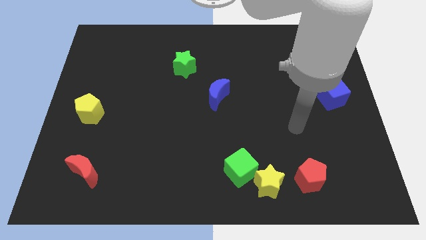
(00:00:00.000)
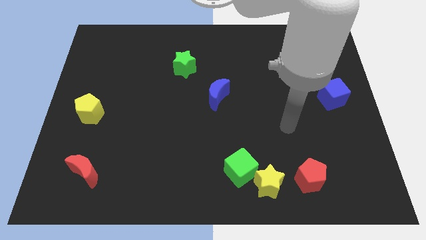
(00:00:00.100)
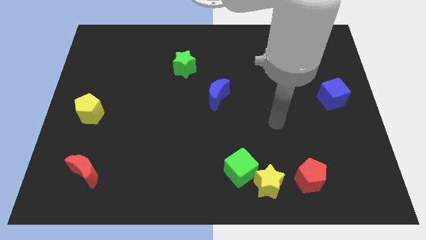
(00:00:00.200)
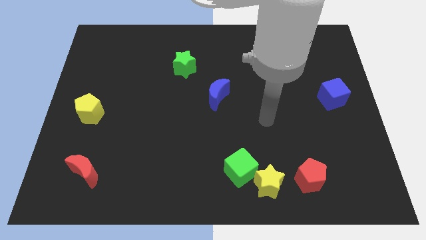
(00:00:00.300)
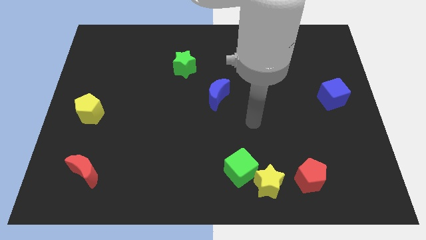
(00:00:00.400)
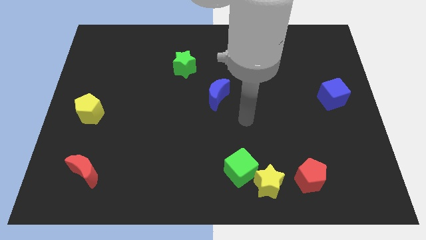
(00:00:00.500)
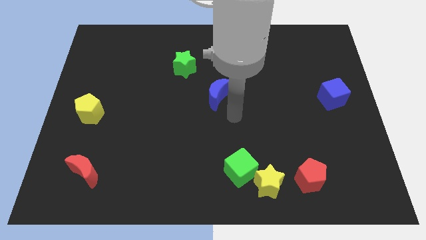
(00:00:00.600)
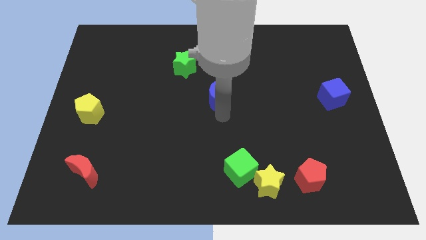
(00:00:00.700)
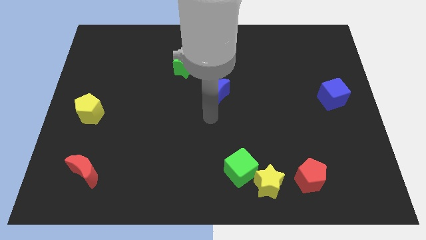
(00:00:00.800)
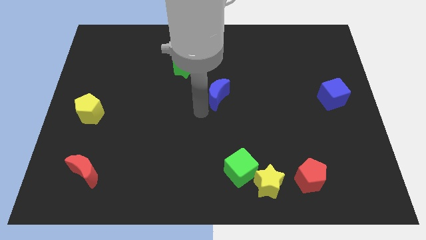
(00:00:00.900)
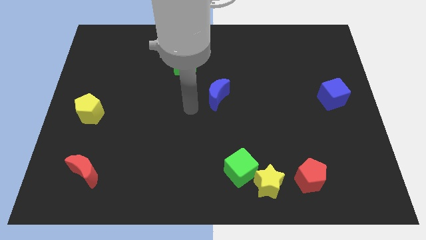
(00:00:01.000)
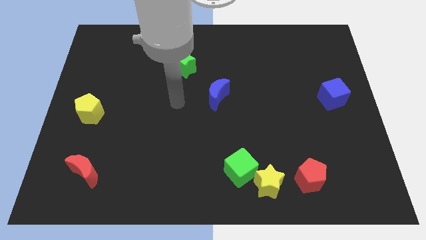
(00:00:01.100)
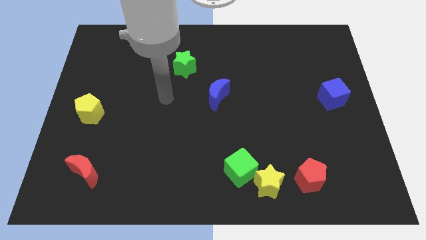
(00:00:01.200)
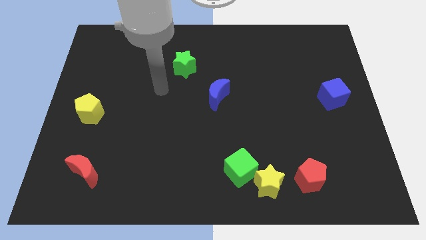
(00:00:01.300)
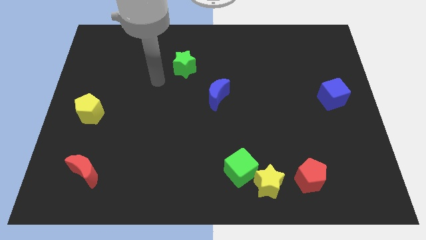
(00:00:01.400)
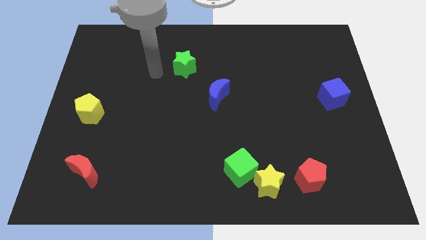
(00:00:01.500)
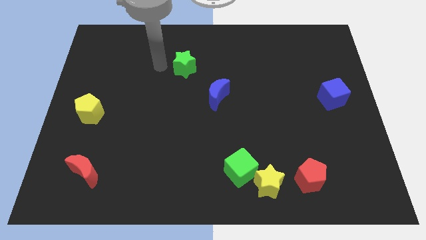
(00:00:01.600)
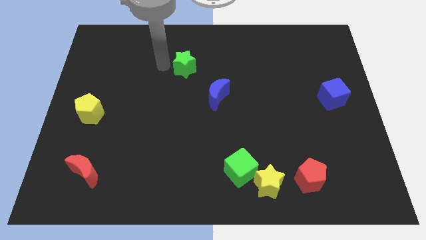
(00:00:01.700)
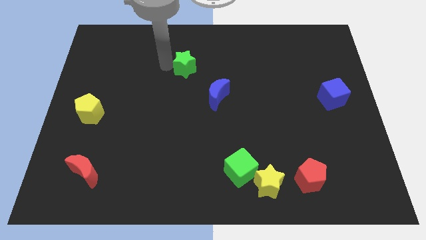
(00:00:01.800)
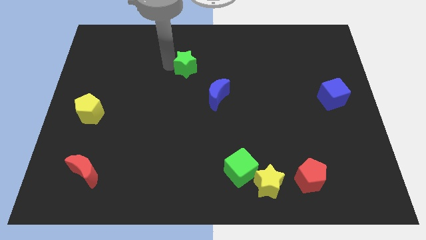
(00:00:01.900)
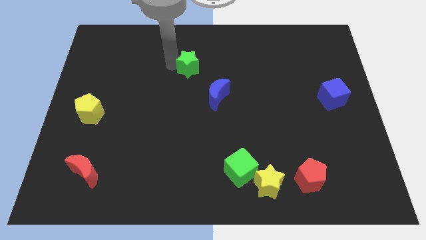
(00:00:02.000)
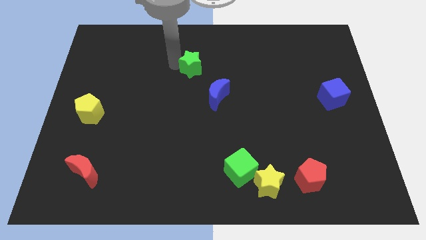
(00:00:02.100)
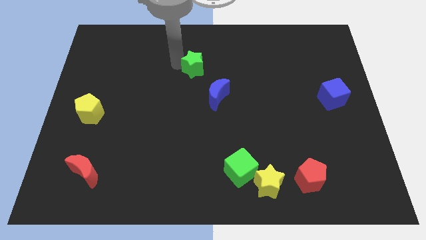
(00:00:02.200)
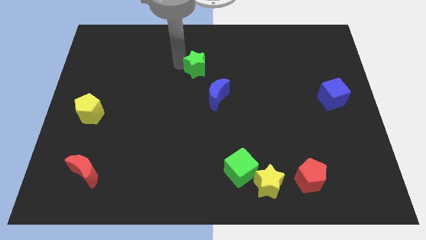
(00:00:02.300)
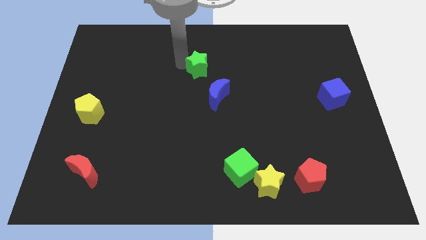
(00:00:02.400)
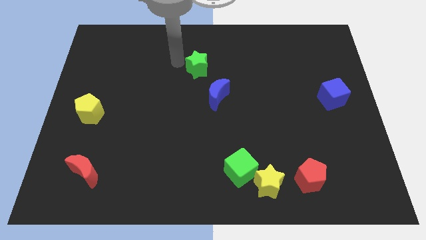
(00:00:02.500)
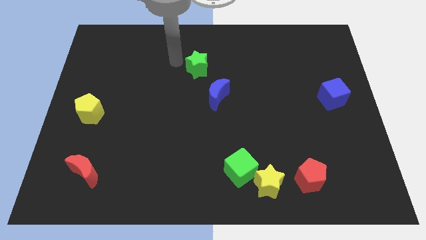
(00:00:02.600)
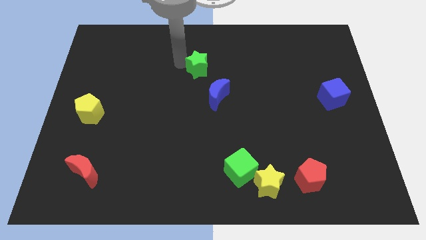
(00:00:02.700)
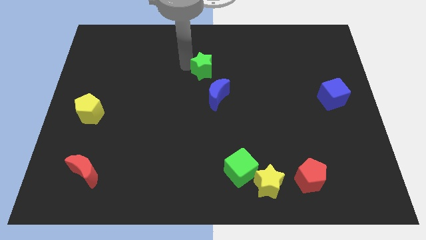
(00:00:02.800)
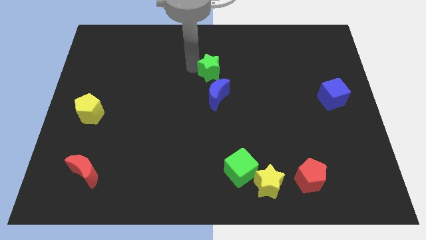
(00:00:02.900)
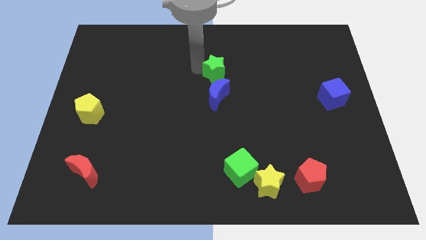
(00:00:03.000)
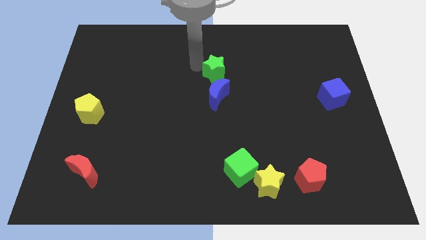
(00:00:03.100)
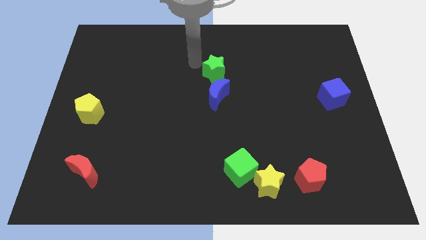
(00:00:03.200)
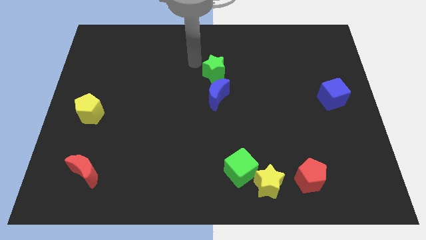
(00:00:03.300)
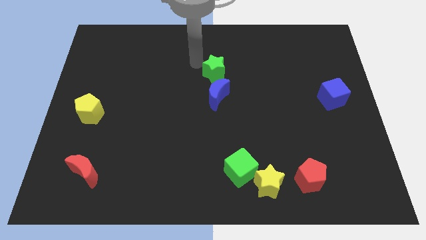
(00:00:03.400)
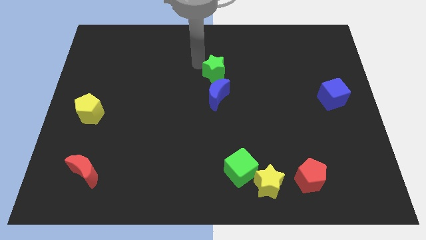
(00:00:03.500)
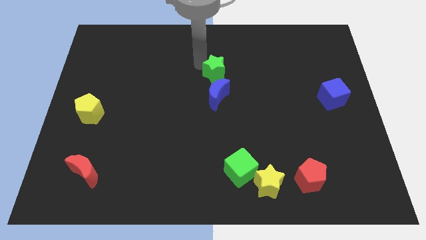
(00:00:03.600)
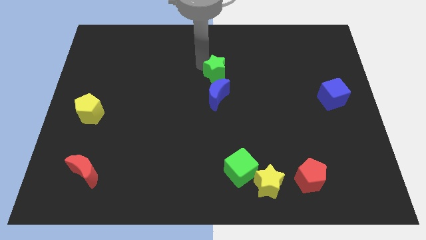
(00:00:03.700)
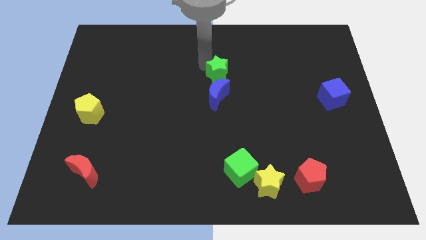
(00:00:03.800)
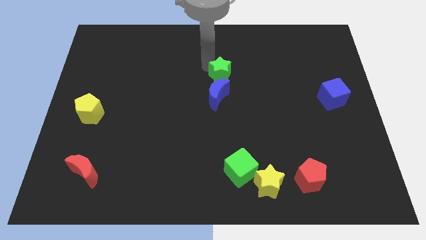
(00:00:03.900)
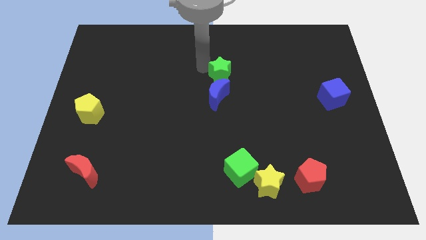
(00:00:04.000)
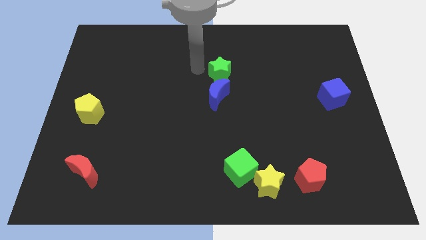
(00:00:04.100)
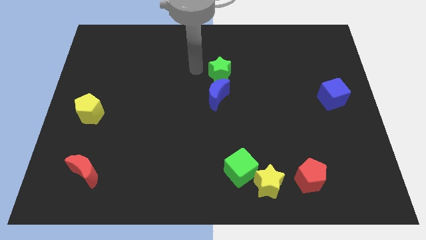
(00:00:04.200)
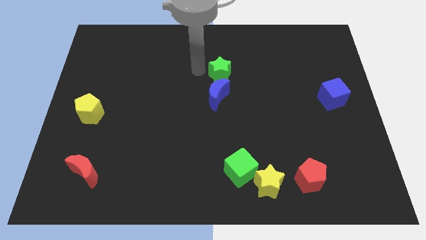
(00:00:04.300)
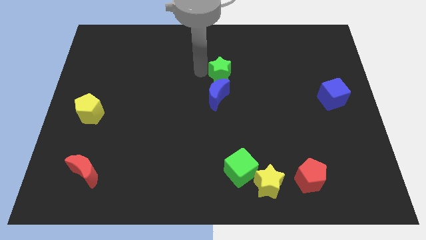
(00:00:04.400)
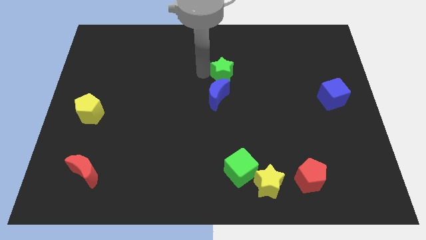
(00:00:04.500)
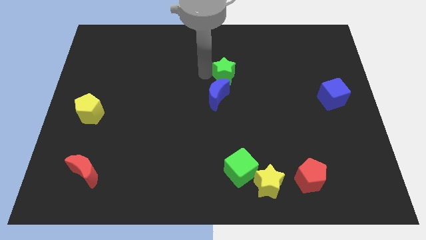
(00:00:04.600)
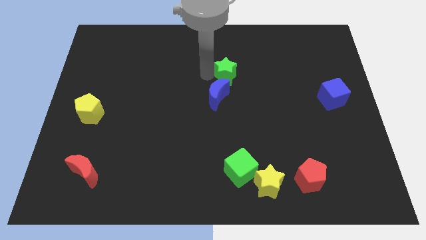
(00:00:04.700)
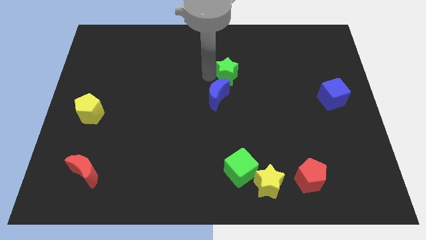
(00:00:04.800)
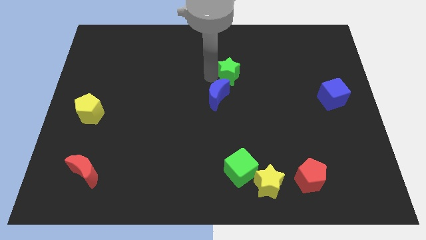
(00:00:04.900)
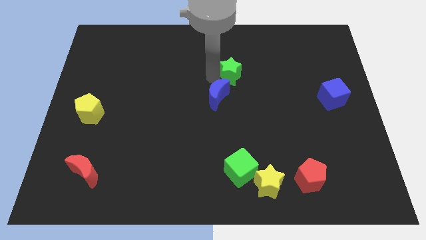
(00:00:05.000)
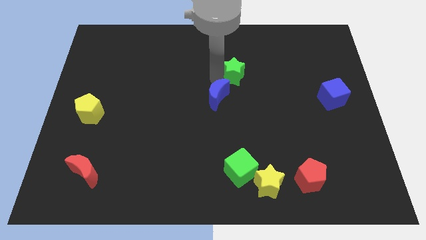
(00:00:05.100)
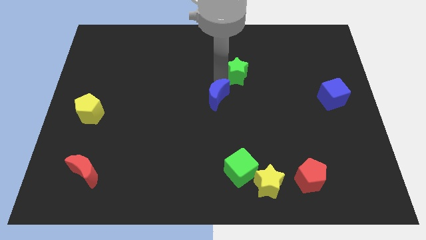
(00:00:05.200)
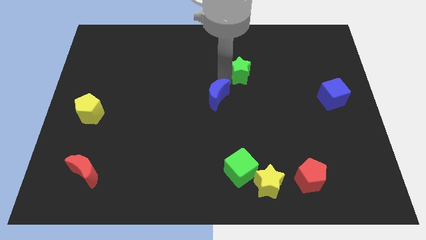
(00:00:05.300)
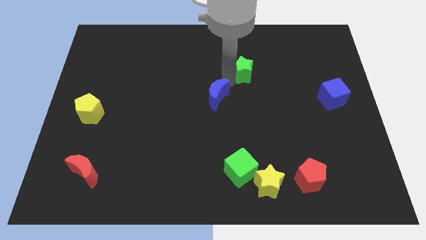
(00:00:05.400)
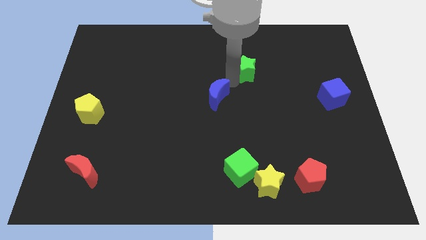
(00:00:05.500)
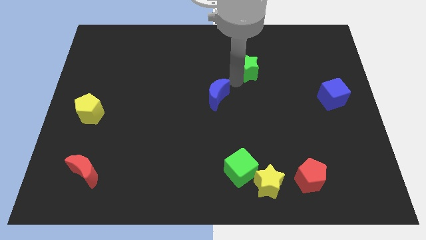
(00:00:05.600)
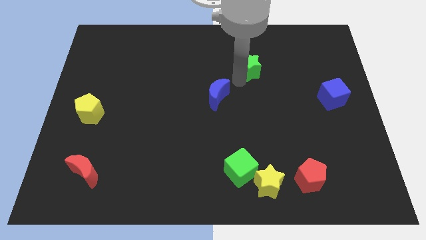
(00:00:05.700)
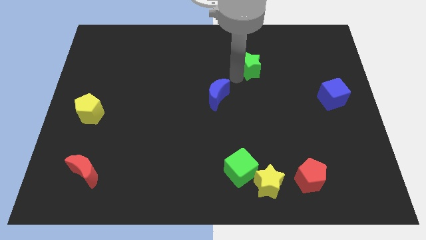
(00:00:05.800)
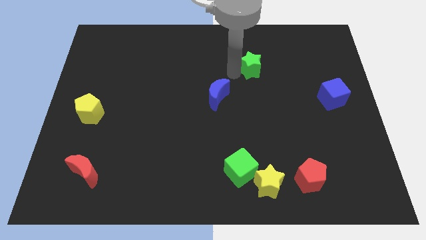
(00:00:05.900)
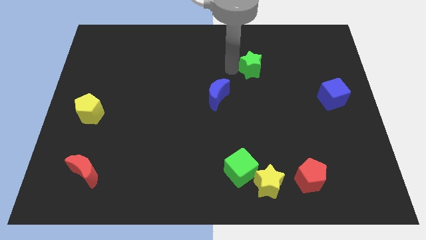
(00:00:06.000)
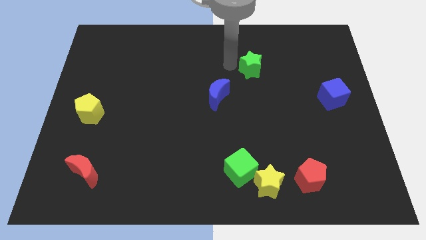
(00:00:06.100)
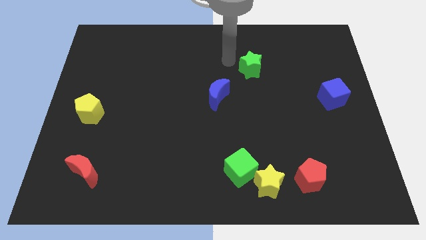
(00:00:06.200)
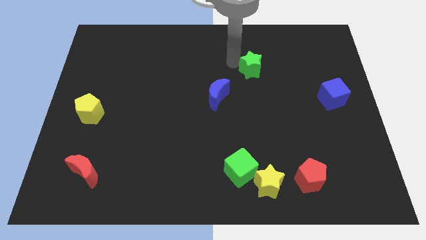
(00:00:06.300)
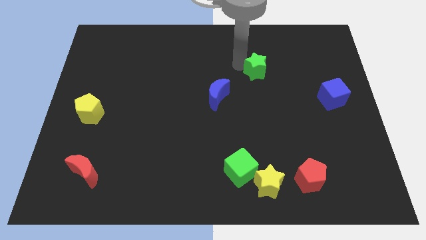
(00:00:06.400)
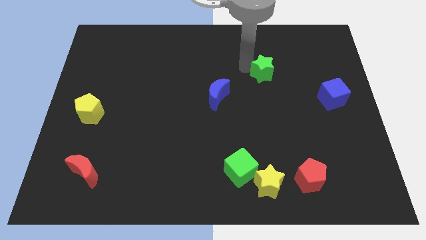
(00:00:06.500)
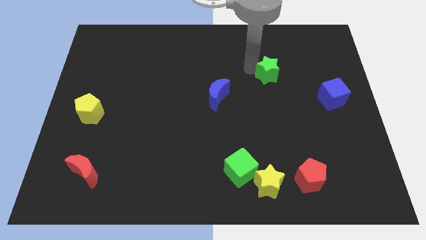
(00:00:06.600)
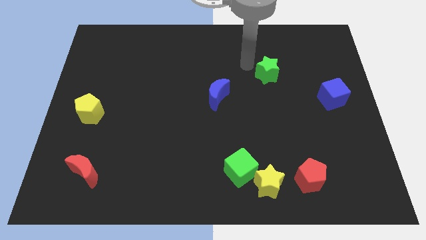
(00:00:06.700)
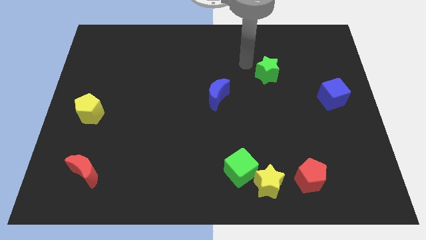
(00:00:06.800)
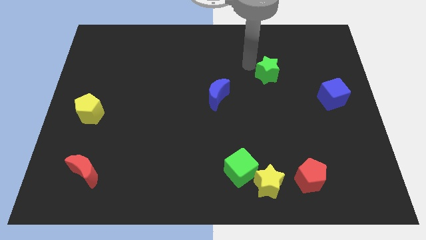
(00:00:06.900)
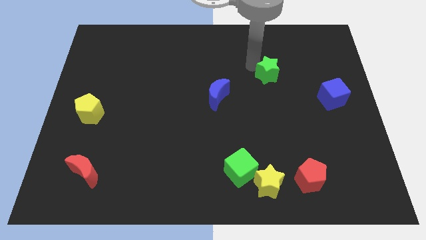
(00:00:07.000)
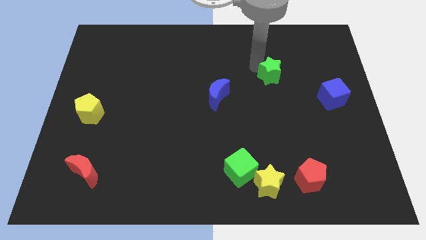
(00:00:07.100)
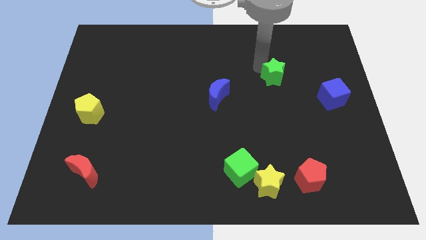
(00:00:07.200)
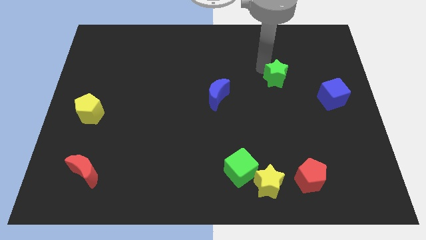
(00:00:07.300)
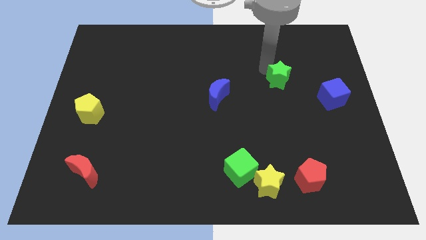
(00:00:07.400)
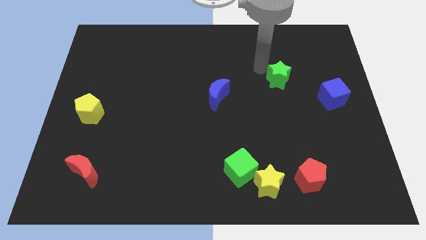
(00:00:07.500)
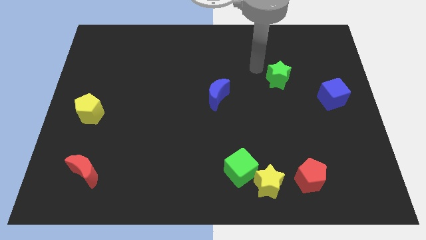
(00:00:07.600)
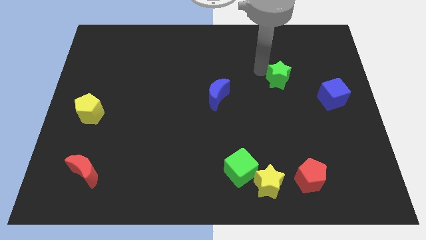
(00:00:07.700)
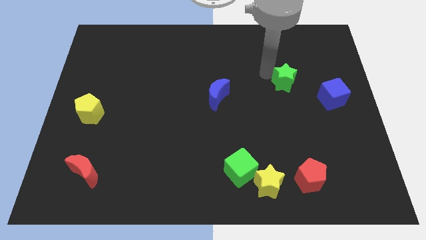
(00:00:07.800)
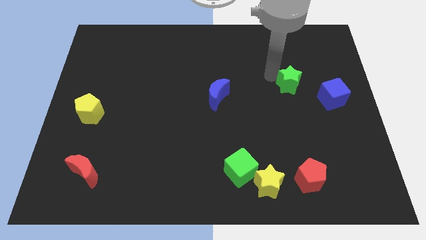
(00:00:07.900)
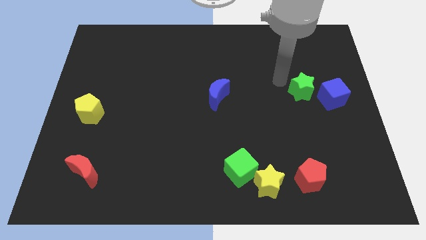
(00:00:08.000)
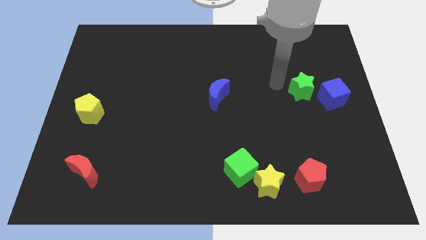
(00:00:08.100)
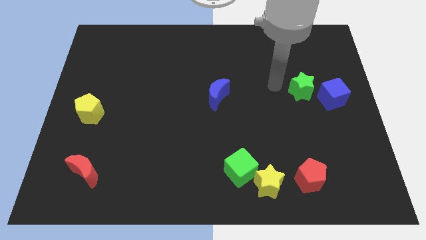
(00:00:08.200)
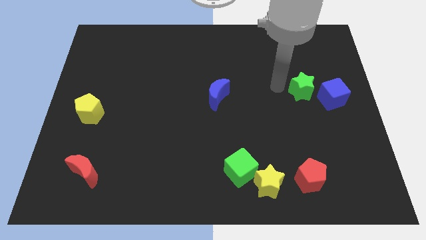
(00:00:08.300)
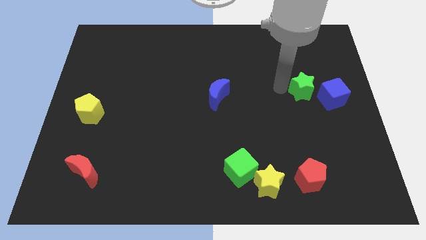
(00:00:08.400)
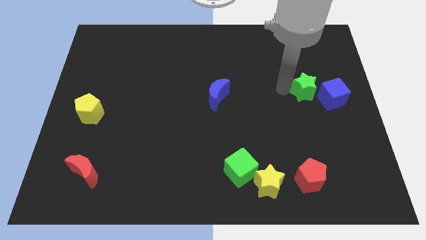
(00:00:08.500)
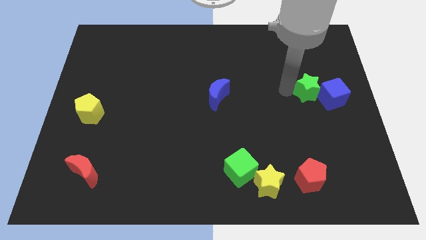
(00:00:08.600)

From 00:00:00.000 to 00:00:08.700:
move the green star next to the blue cube
